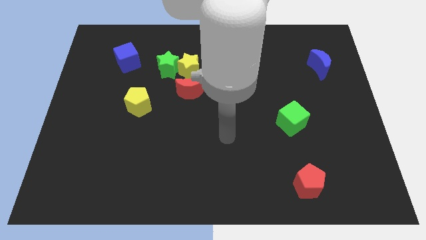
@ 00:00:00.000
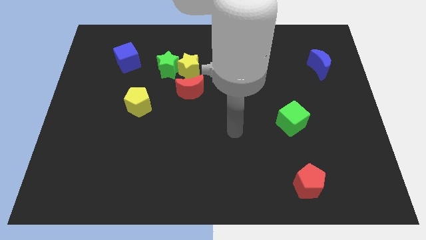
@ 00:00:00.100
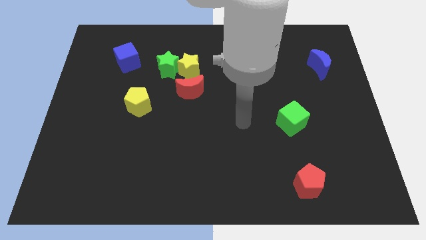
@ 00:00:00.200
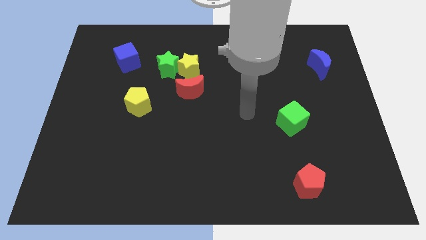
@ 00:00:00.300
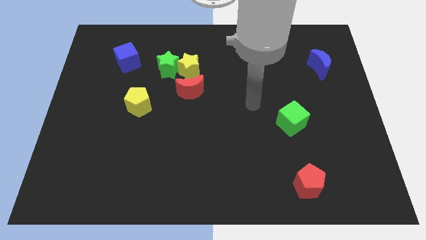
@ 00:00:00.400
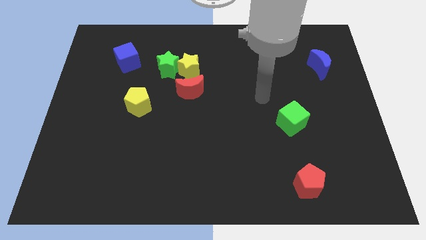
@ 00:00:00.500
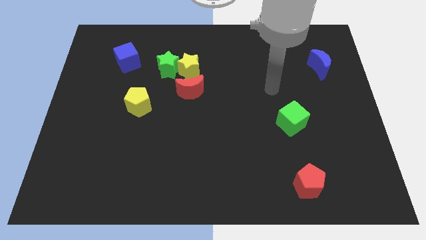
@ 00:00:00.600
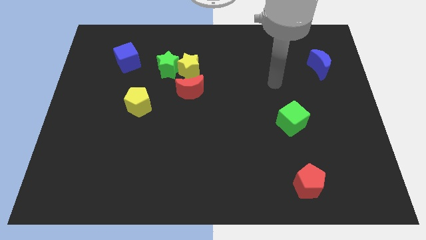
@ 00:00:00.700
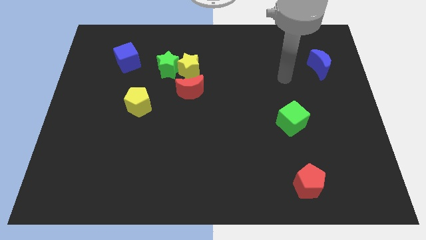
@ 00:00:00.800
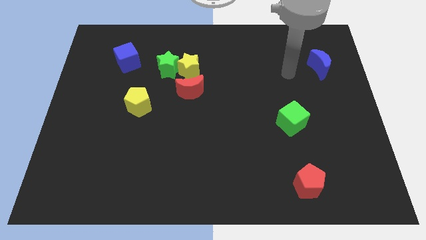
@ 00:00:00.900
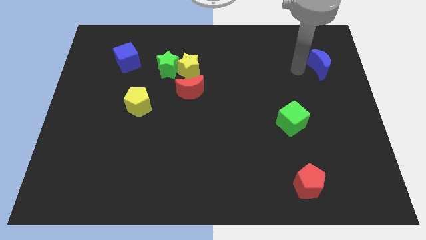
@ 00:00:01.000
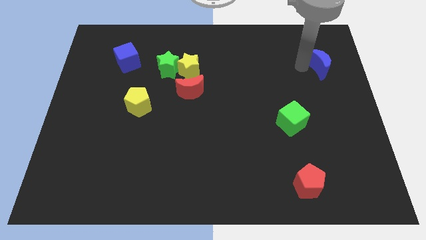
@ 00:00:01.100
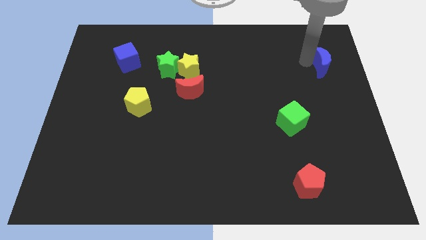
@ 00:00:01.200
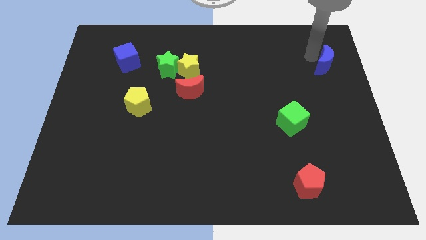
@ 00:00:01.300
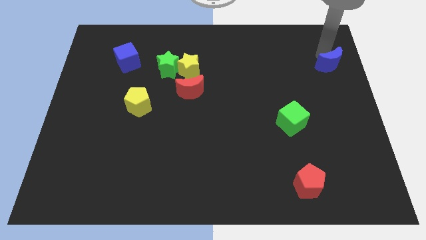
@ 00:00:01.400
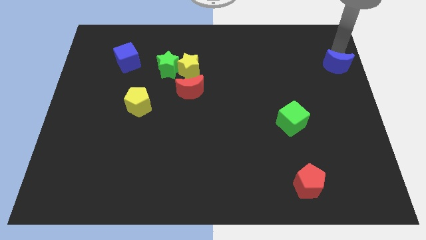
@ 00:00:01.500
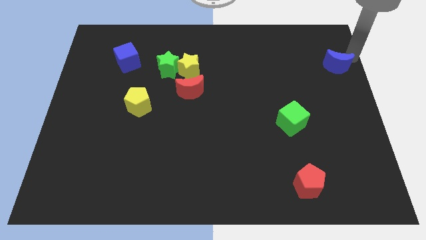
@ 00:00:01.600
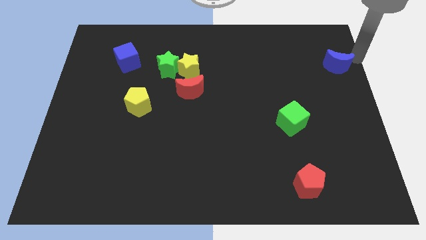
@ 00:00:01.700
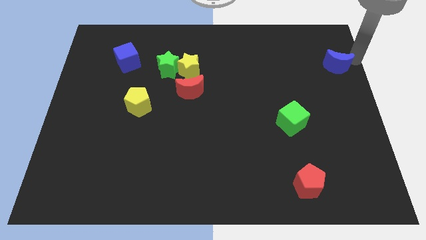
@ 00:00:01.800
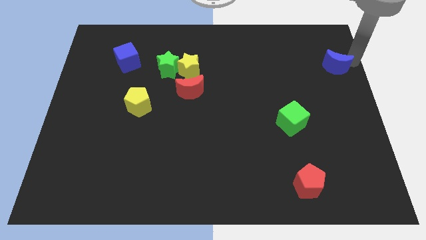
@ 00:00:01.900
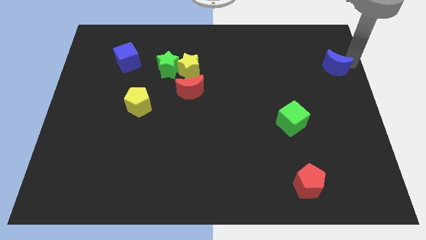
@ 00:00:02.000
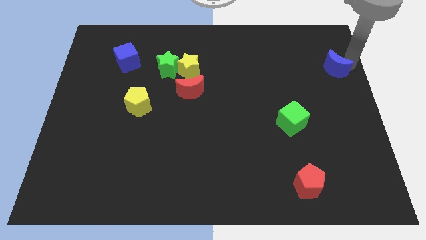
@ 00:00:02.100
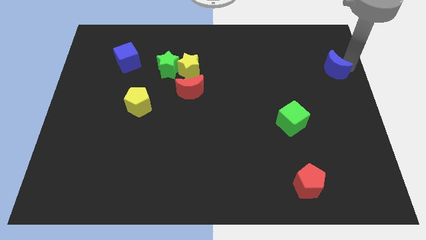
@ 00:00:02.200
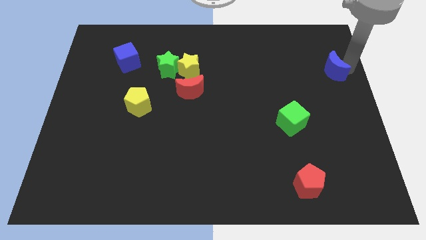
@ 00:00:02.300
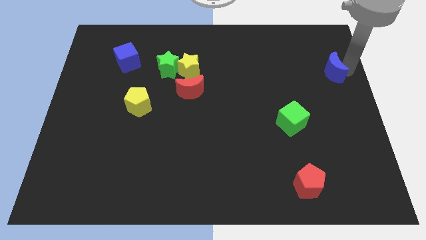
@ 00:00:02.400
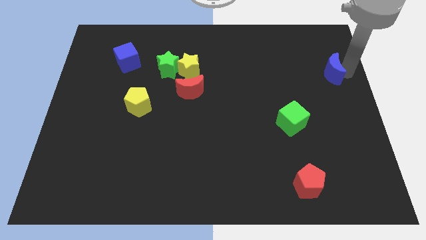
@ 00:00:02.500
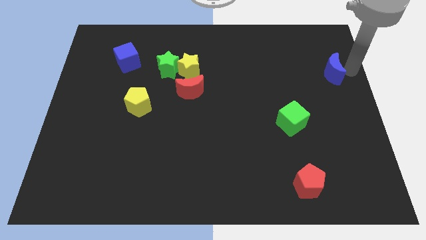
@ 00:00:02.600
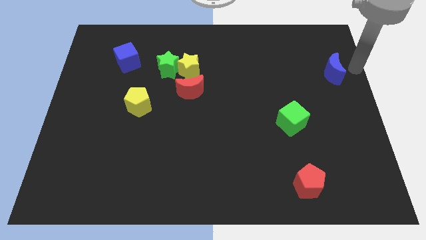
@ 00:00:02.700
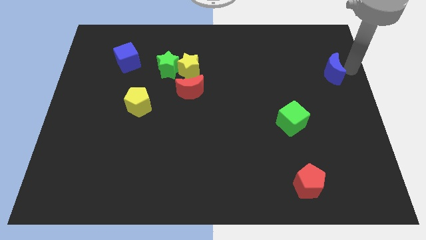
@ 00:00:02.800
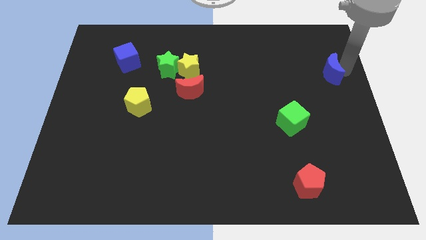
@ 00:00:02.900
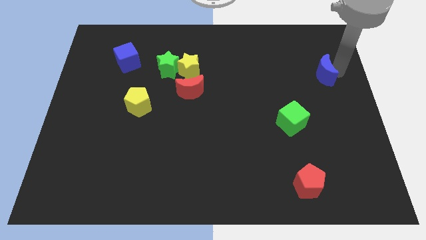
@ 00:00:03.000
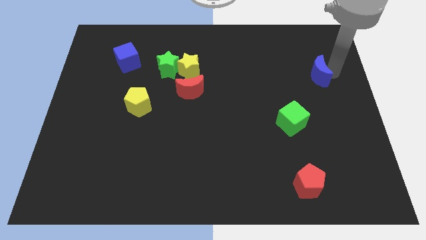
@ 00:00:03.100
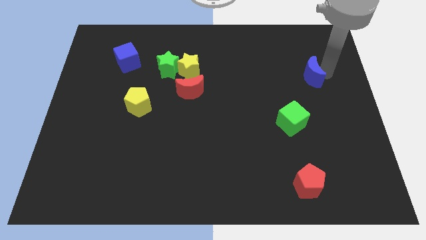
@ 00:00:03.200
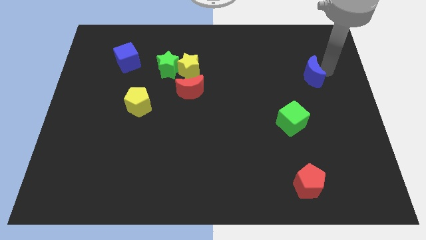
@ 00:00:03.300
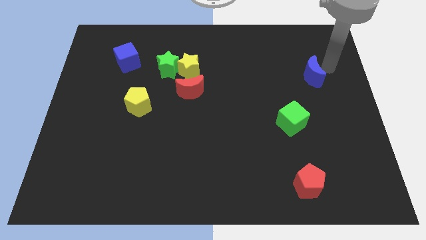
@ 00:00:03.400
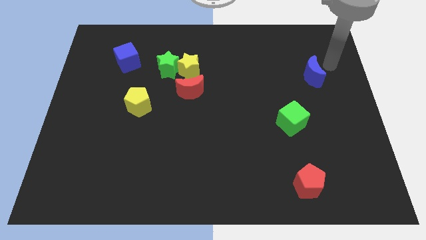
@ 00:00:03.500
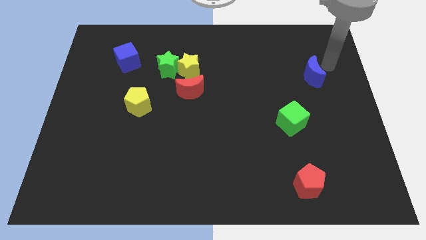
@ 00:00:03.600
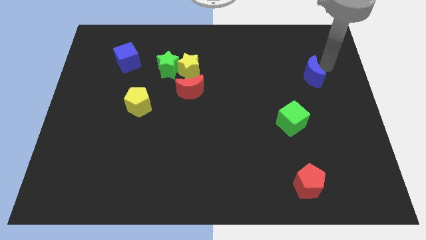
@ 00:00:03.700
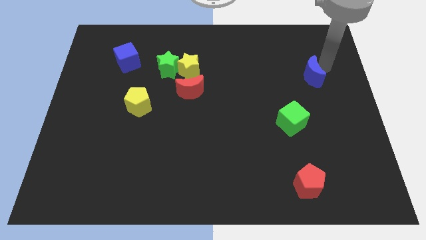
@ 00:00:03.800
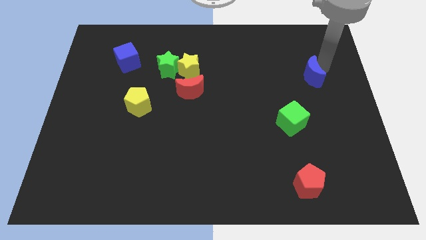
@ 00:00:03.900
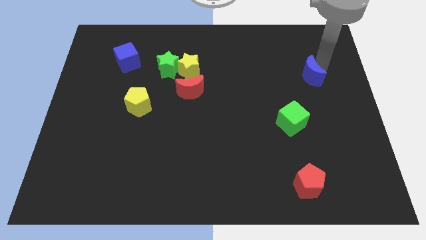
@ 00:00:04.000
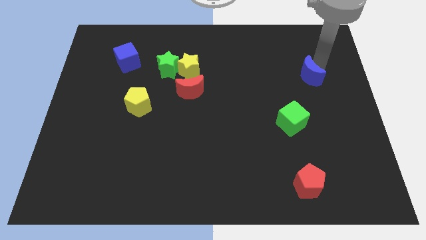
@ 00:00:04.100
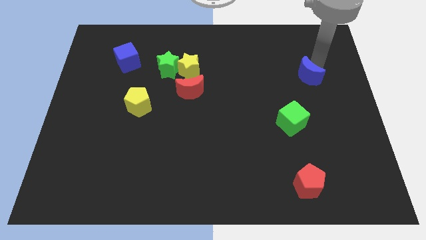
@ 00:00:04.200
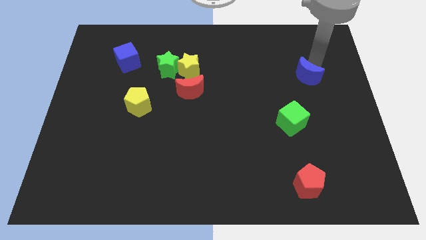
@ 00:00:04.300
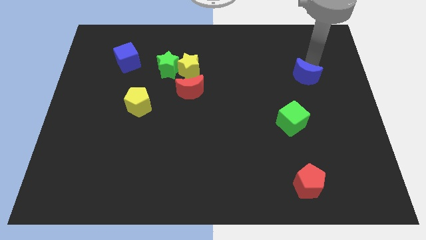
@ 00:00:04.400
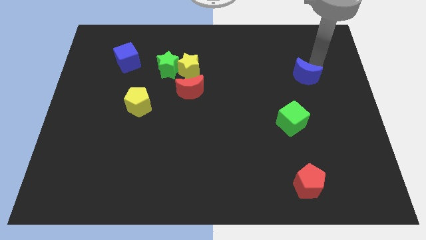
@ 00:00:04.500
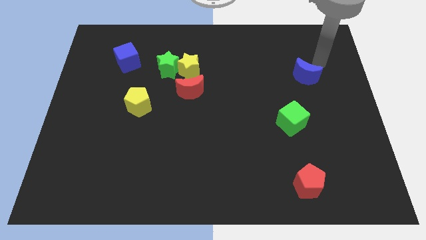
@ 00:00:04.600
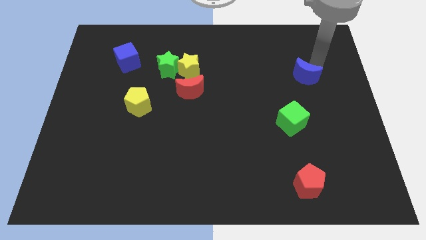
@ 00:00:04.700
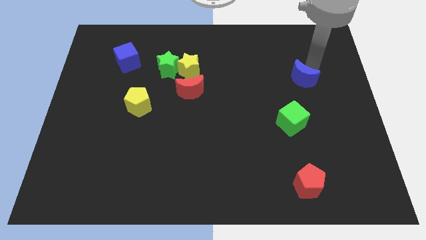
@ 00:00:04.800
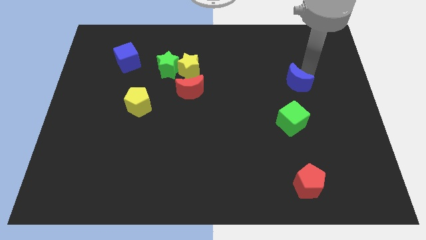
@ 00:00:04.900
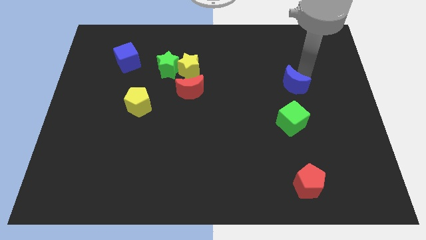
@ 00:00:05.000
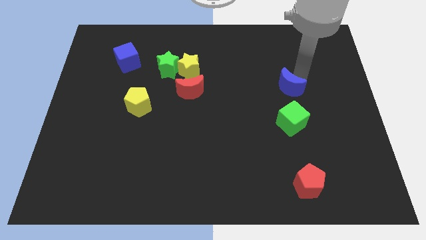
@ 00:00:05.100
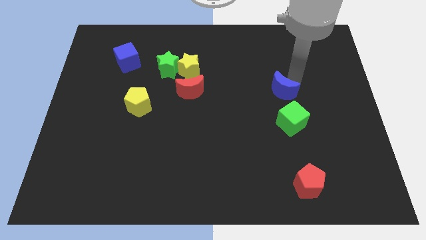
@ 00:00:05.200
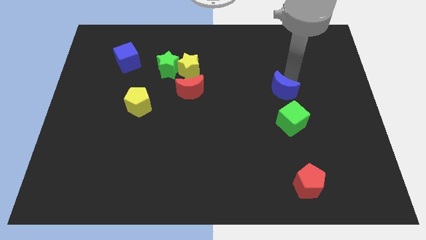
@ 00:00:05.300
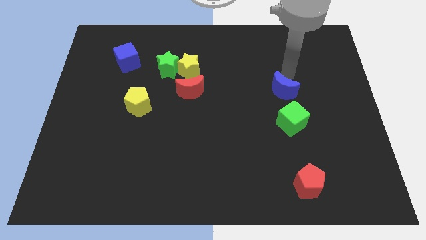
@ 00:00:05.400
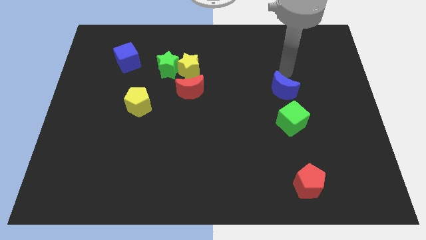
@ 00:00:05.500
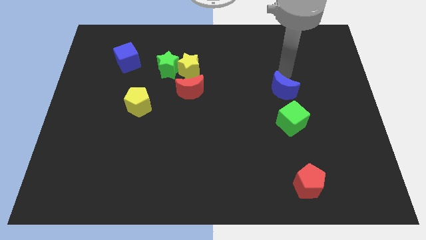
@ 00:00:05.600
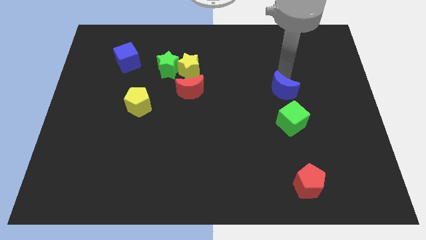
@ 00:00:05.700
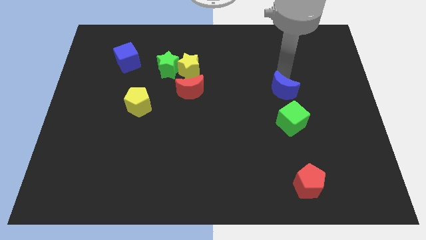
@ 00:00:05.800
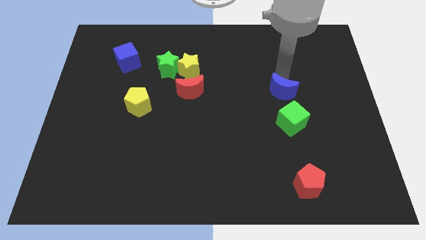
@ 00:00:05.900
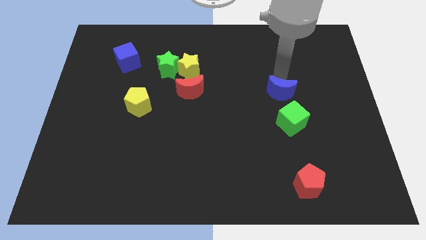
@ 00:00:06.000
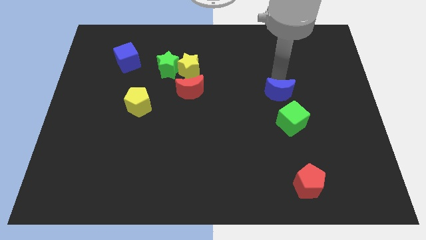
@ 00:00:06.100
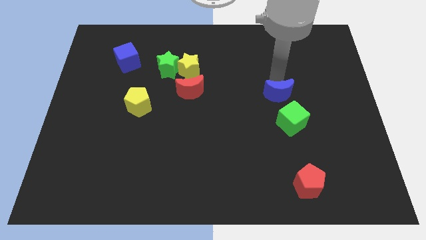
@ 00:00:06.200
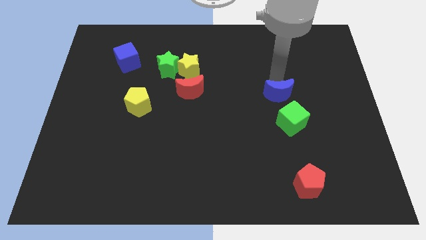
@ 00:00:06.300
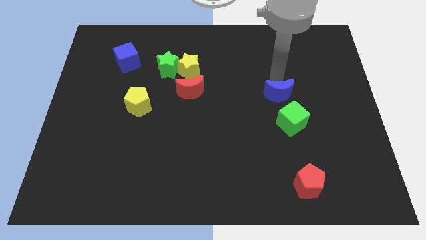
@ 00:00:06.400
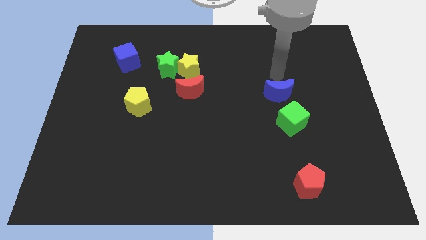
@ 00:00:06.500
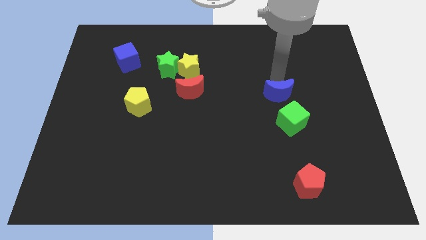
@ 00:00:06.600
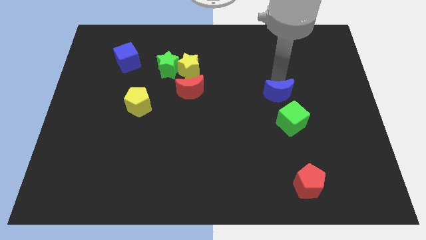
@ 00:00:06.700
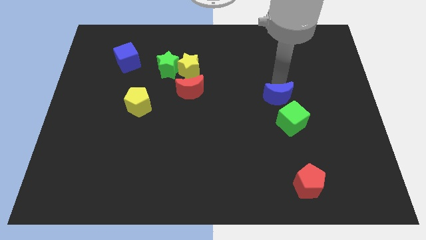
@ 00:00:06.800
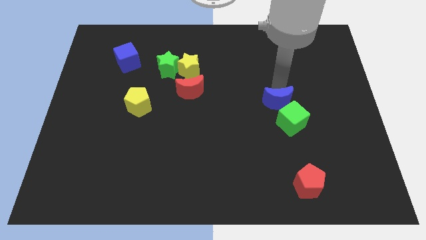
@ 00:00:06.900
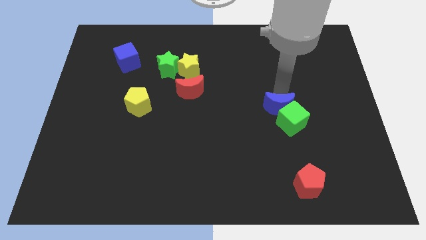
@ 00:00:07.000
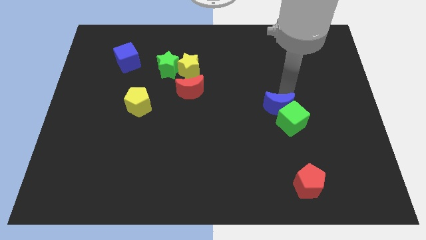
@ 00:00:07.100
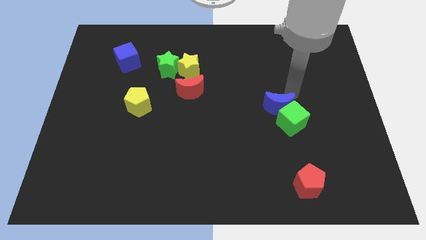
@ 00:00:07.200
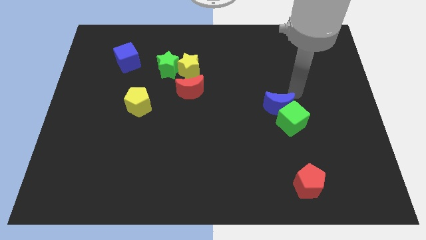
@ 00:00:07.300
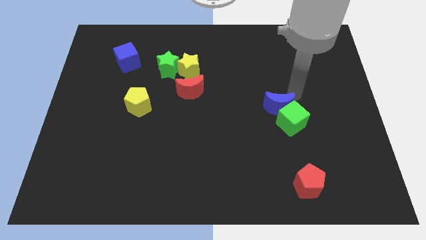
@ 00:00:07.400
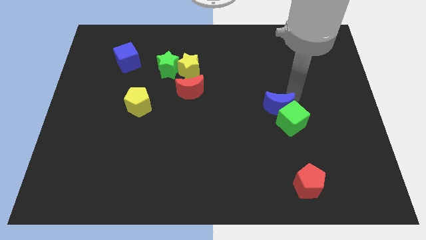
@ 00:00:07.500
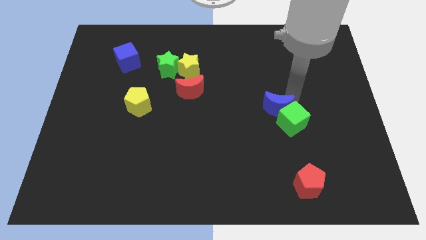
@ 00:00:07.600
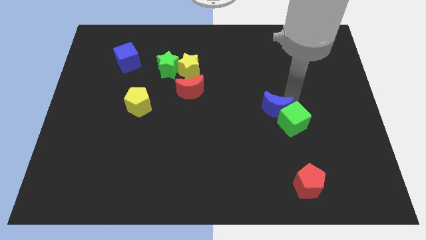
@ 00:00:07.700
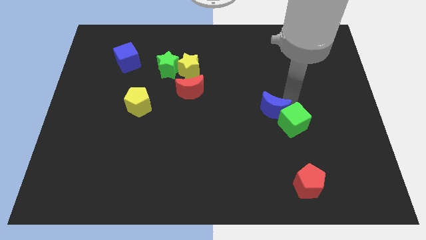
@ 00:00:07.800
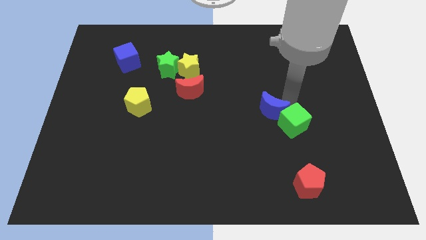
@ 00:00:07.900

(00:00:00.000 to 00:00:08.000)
slide the blue moon diagonally downwards and to the left
